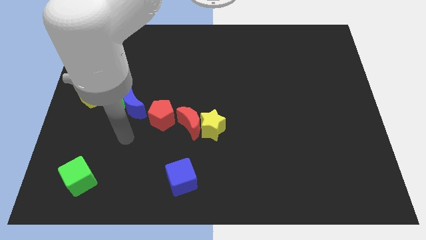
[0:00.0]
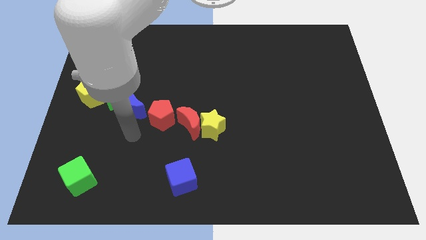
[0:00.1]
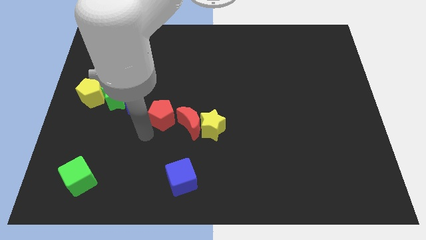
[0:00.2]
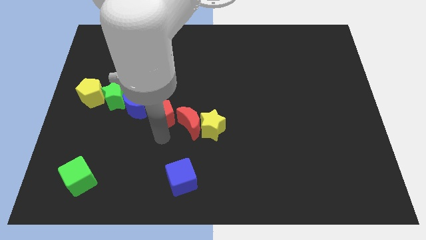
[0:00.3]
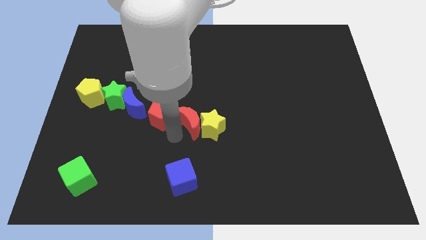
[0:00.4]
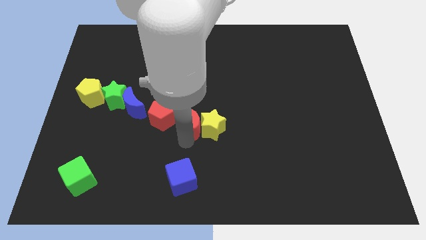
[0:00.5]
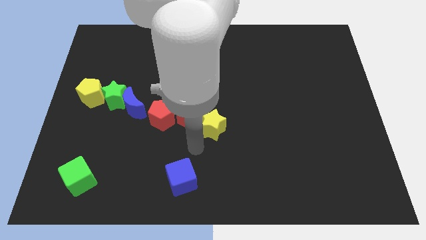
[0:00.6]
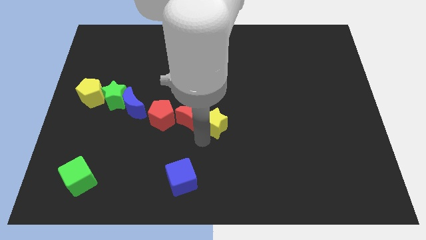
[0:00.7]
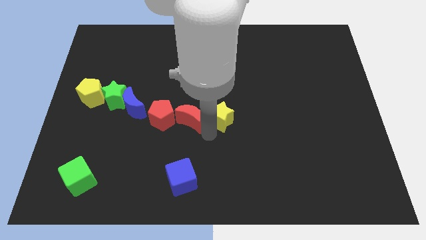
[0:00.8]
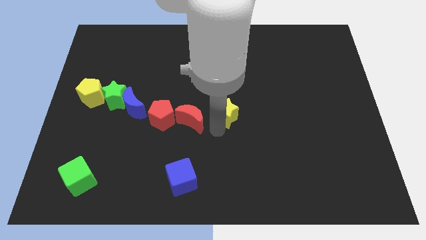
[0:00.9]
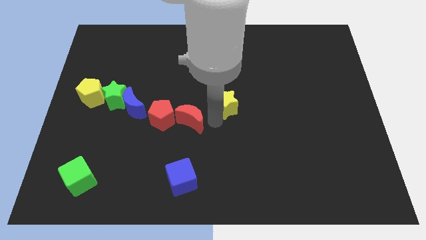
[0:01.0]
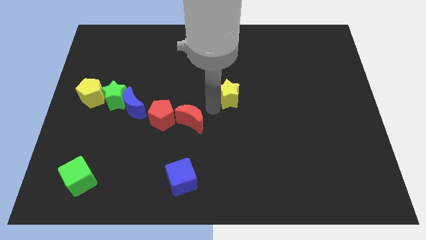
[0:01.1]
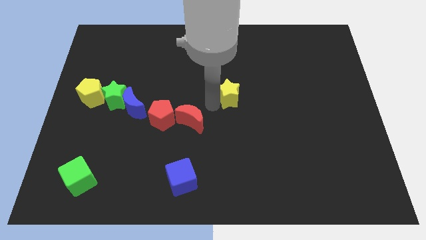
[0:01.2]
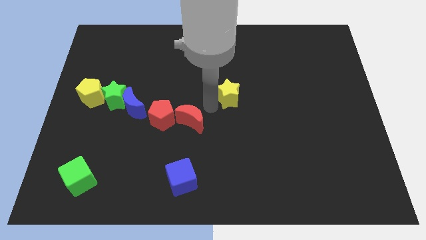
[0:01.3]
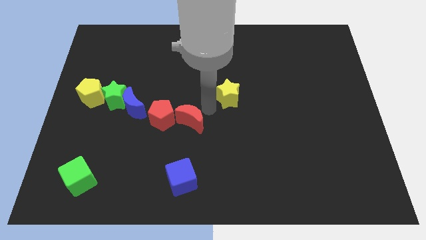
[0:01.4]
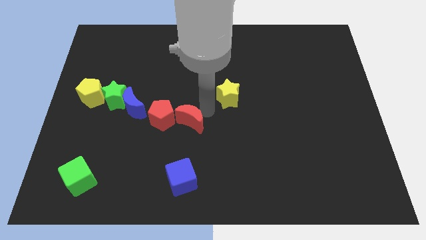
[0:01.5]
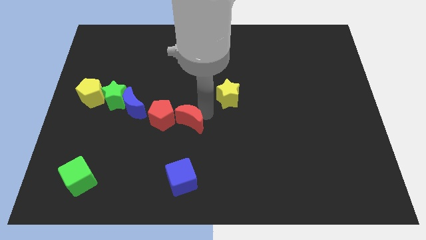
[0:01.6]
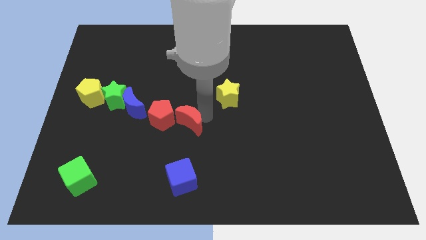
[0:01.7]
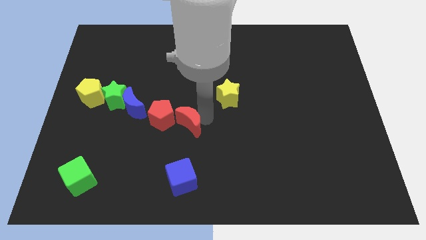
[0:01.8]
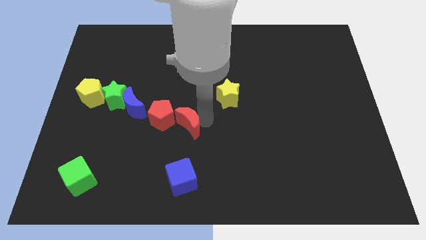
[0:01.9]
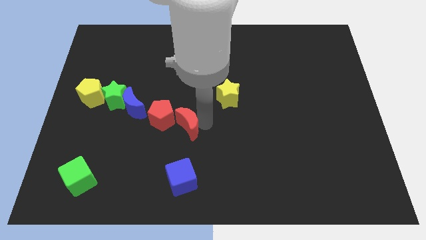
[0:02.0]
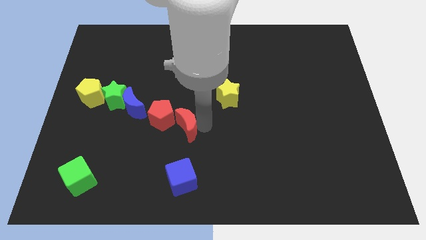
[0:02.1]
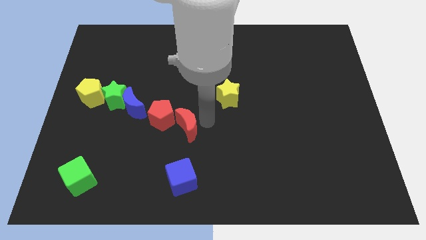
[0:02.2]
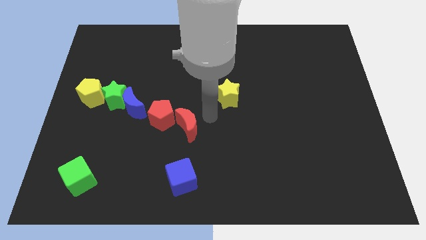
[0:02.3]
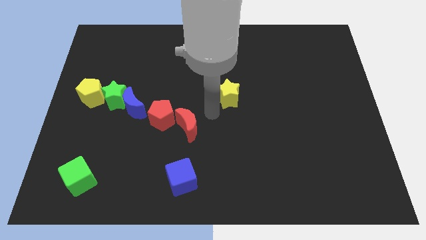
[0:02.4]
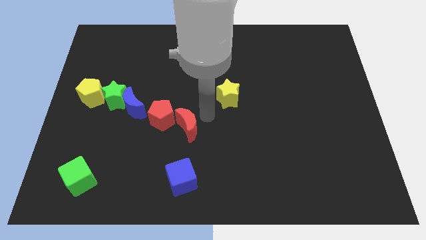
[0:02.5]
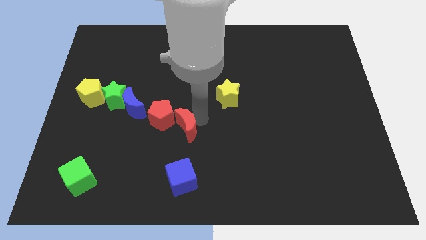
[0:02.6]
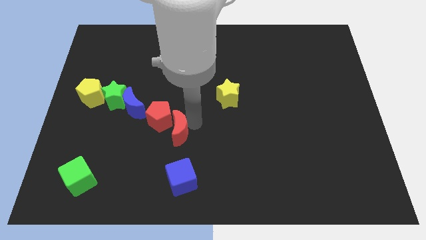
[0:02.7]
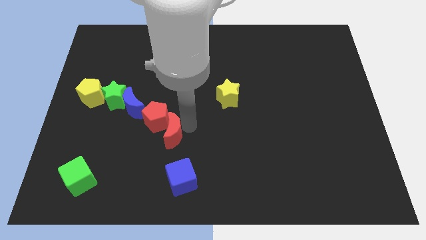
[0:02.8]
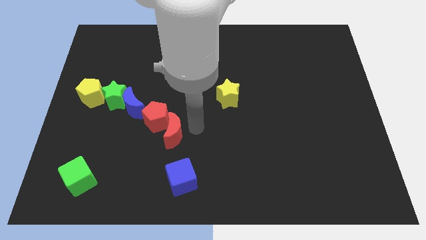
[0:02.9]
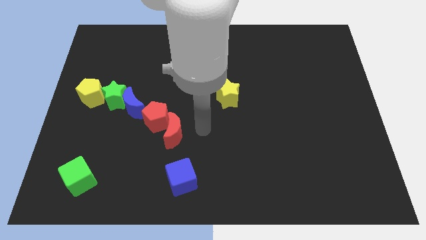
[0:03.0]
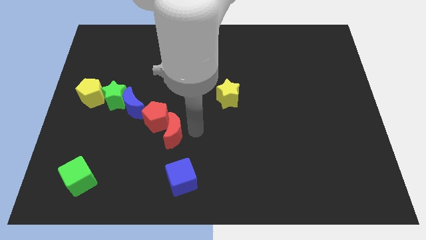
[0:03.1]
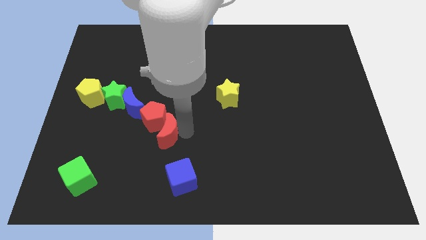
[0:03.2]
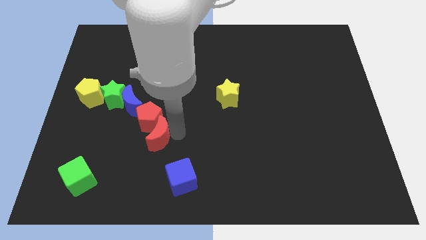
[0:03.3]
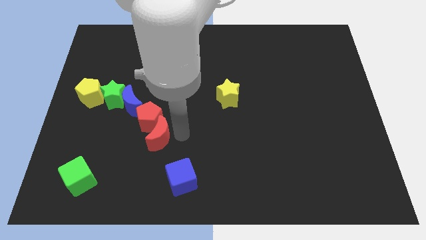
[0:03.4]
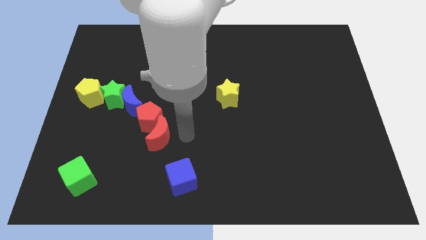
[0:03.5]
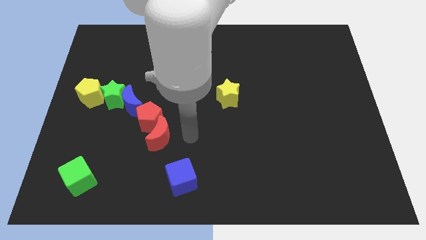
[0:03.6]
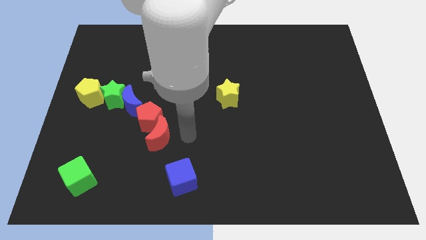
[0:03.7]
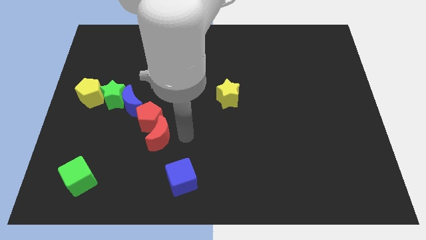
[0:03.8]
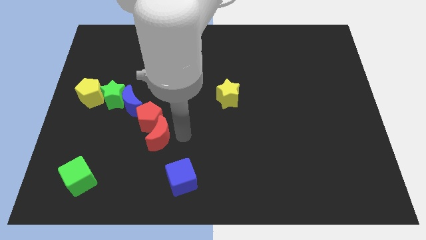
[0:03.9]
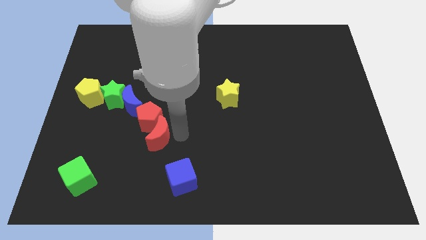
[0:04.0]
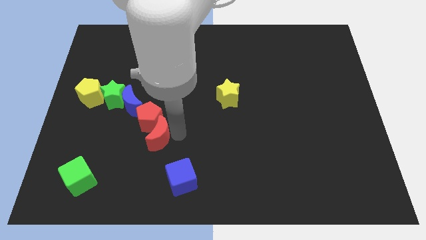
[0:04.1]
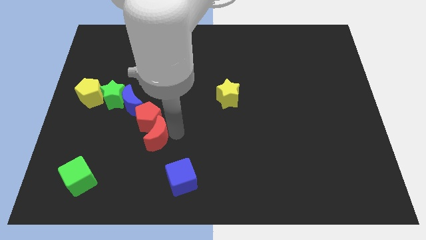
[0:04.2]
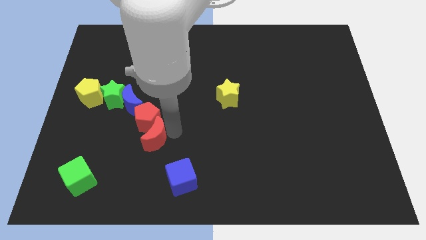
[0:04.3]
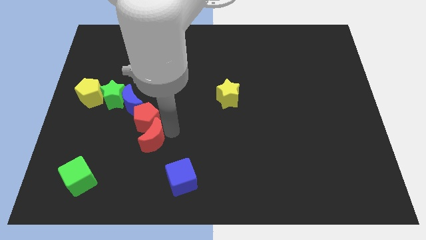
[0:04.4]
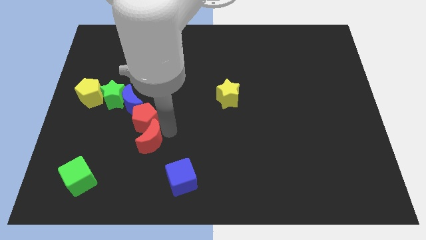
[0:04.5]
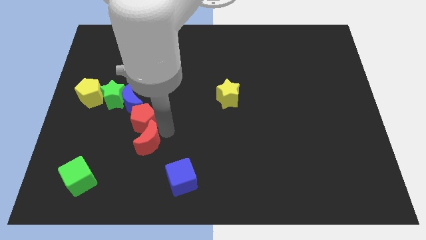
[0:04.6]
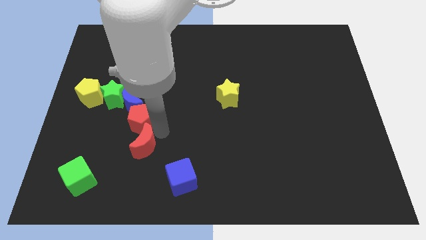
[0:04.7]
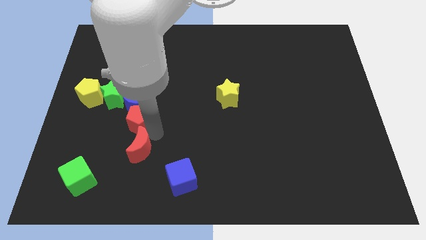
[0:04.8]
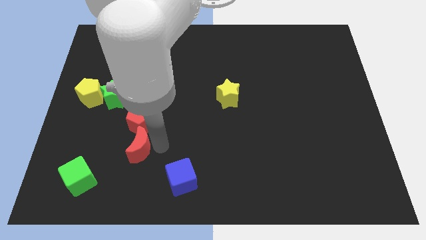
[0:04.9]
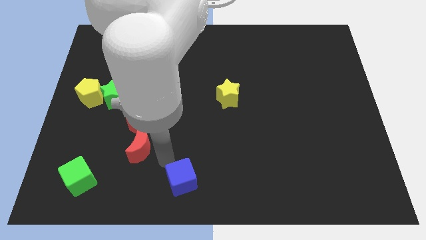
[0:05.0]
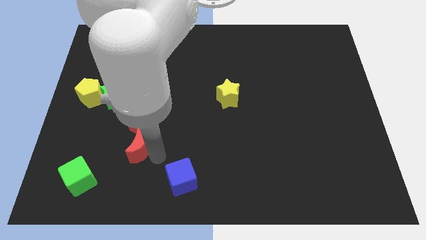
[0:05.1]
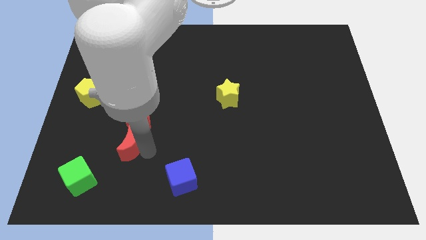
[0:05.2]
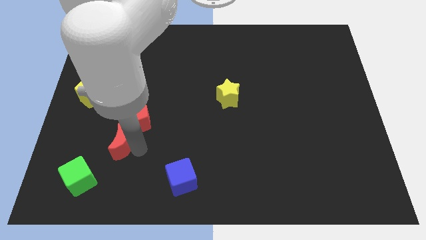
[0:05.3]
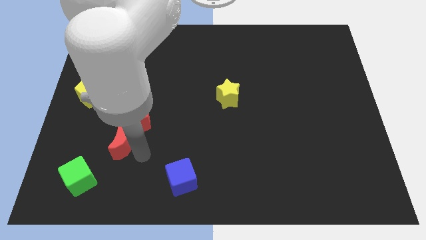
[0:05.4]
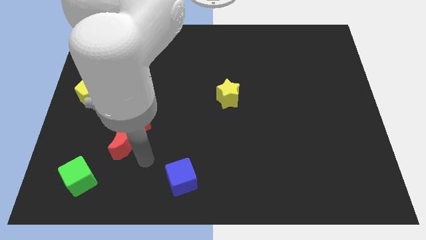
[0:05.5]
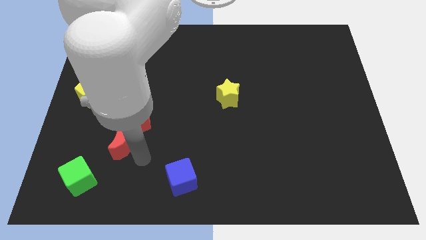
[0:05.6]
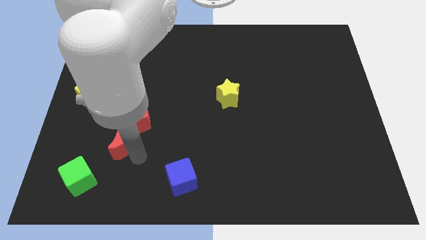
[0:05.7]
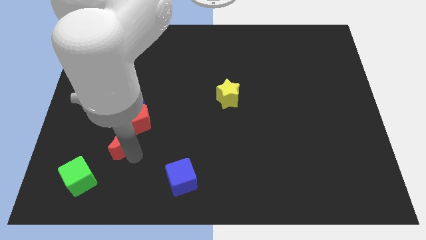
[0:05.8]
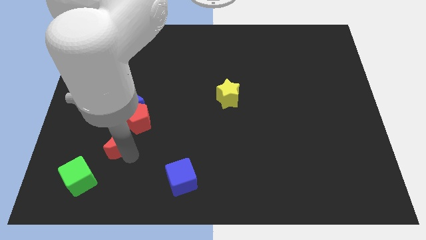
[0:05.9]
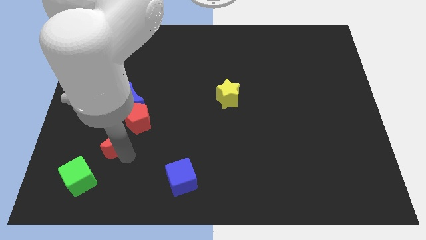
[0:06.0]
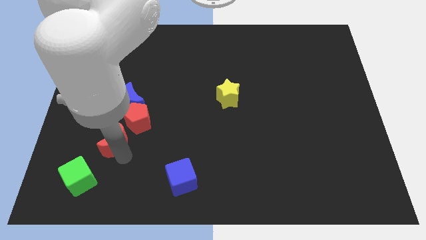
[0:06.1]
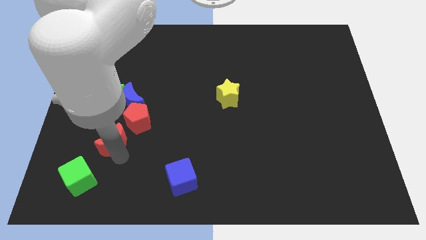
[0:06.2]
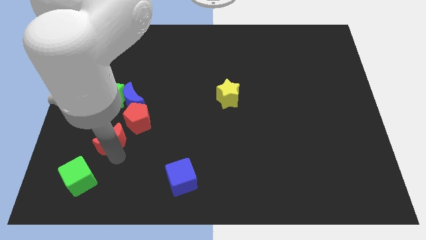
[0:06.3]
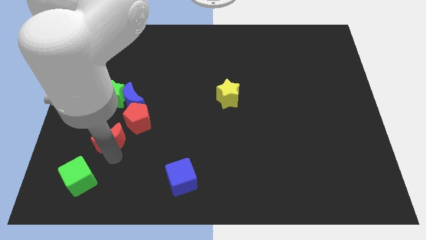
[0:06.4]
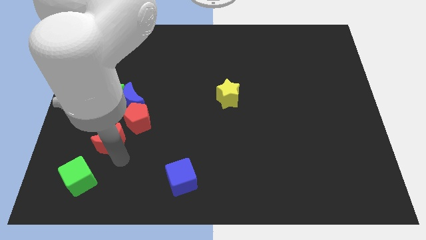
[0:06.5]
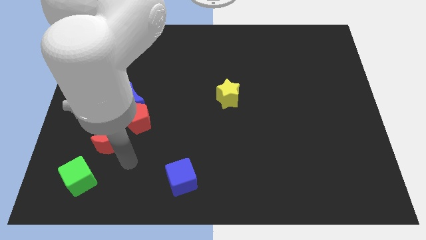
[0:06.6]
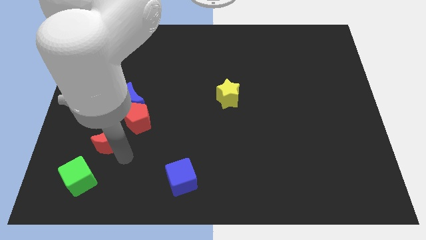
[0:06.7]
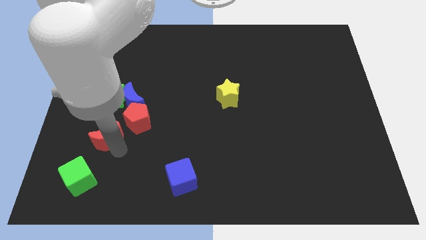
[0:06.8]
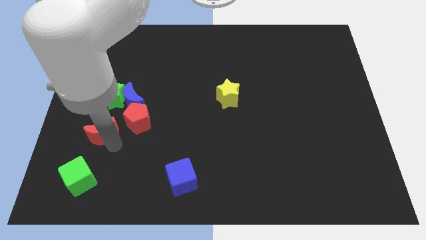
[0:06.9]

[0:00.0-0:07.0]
push the red moon left of the red pentagon
